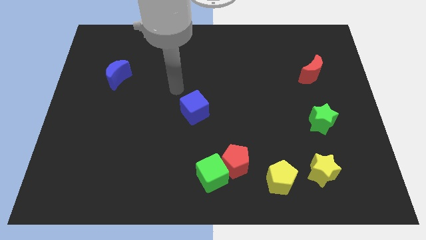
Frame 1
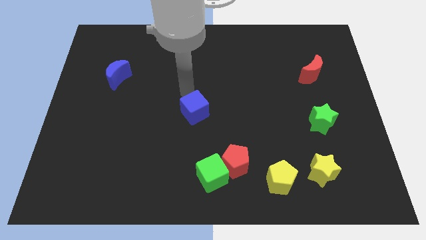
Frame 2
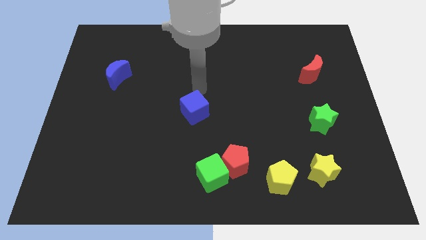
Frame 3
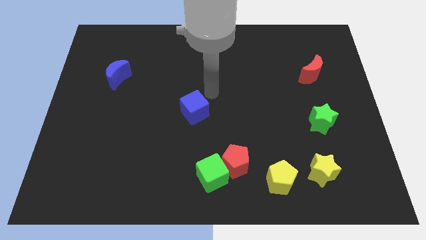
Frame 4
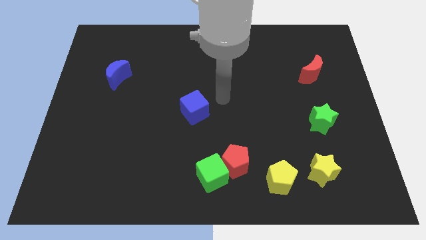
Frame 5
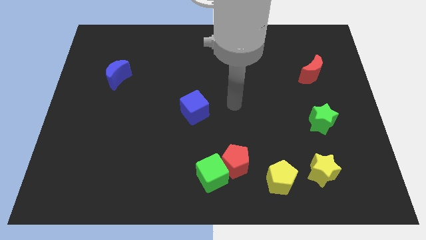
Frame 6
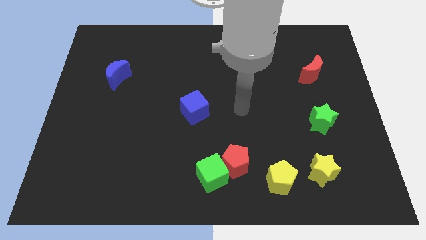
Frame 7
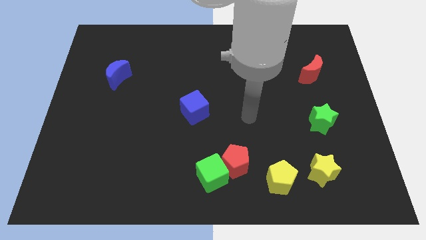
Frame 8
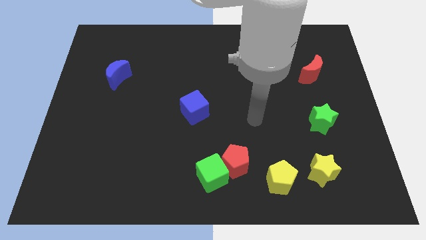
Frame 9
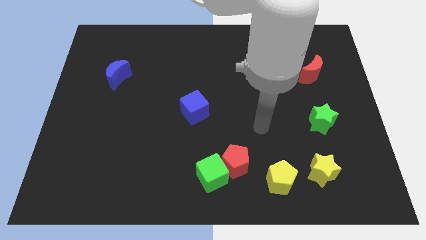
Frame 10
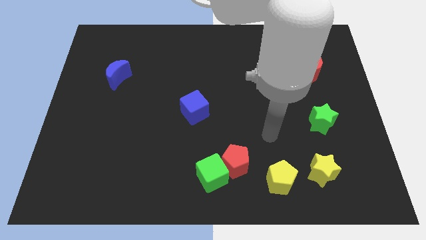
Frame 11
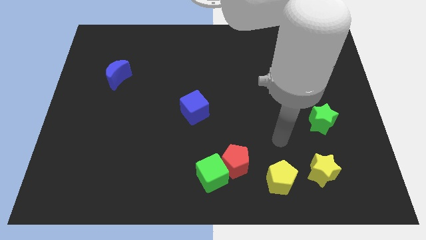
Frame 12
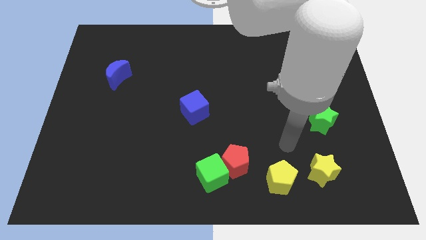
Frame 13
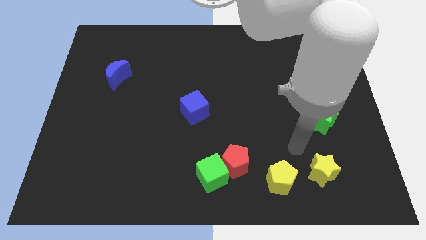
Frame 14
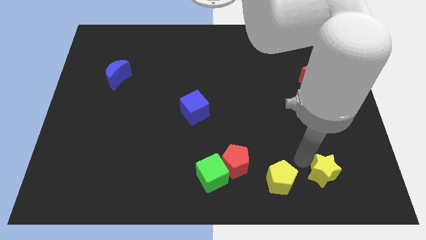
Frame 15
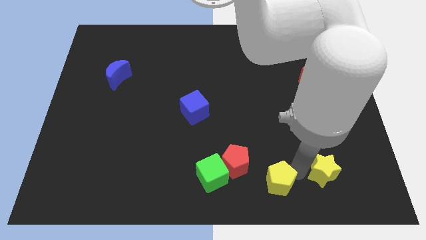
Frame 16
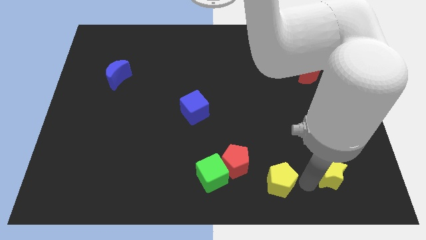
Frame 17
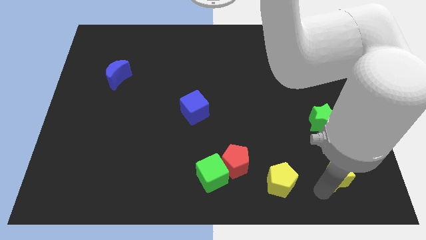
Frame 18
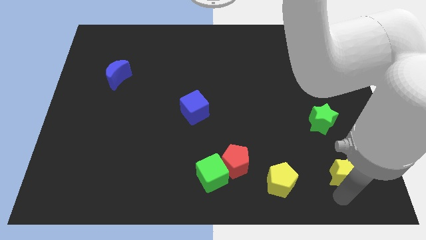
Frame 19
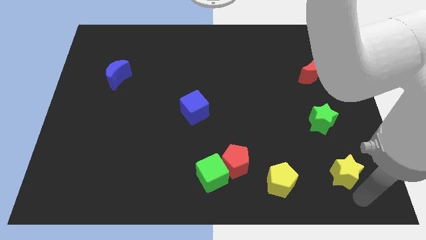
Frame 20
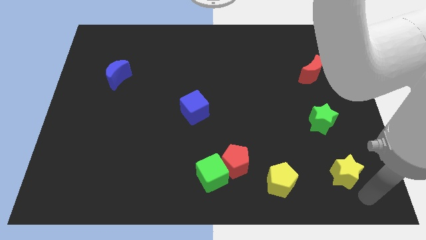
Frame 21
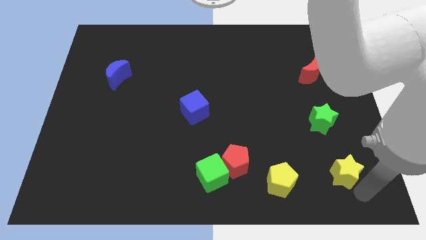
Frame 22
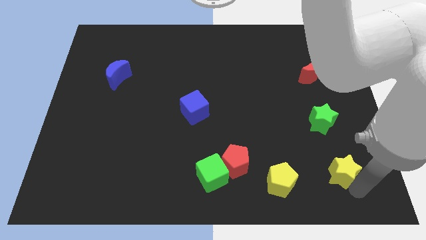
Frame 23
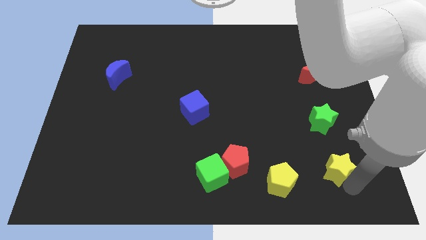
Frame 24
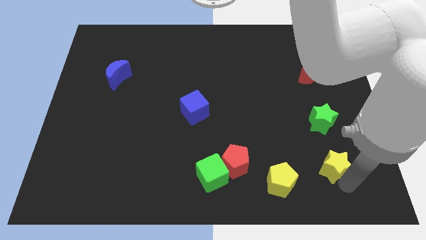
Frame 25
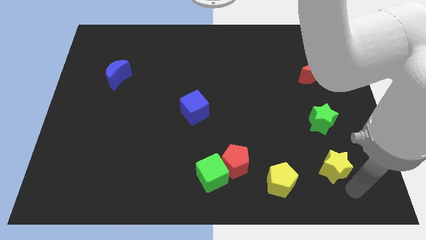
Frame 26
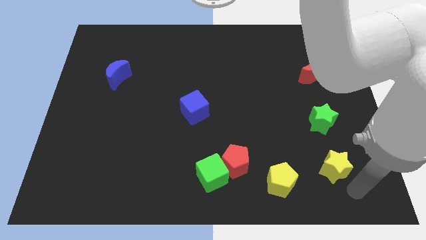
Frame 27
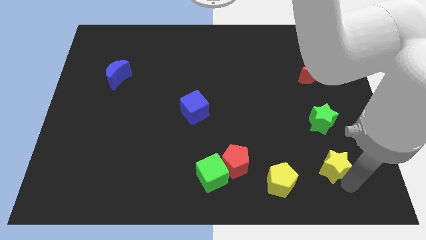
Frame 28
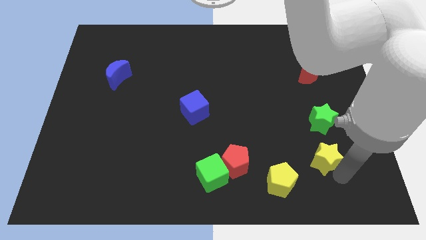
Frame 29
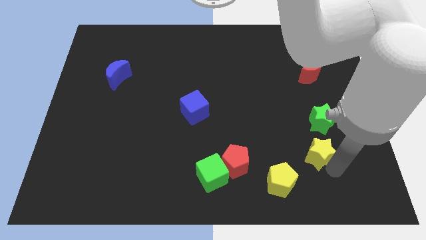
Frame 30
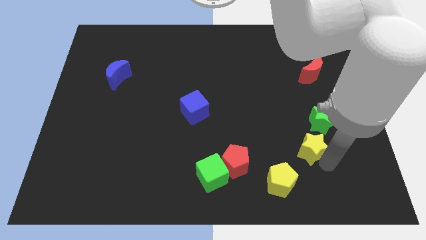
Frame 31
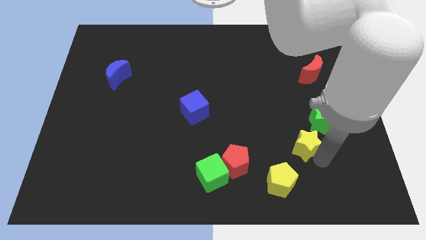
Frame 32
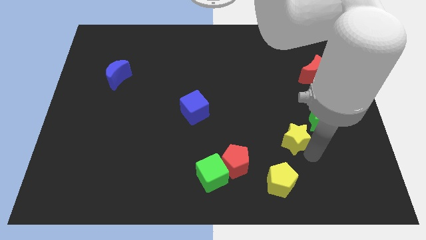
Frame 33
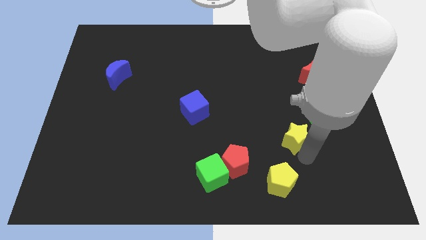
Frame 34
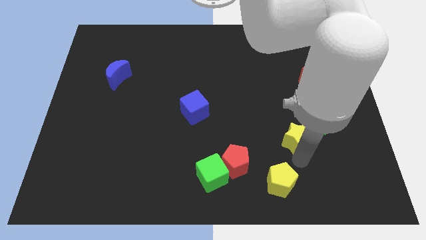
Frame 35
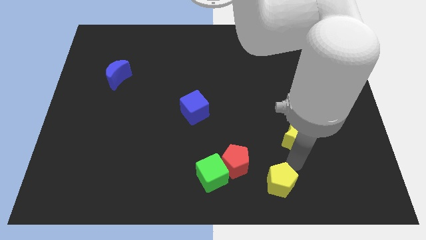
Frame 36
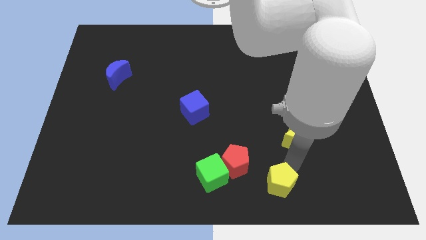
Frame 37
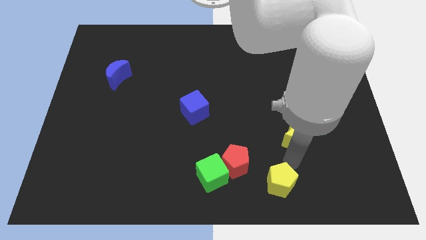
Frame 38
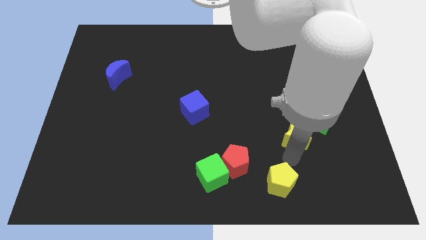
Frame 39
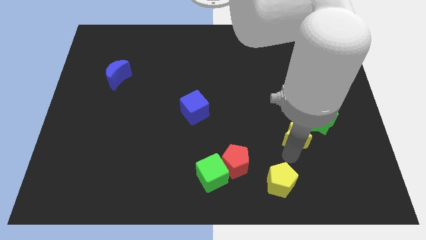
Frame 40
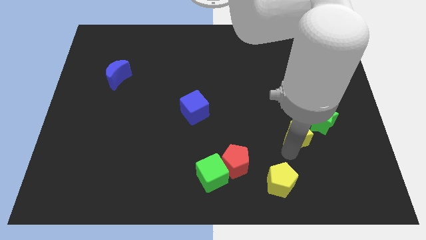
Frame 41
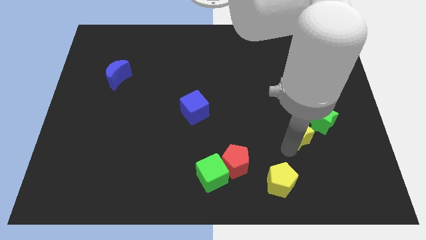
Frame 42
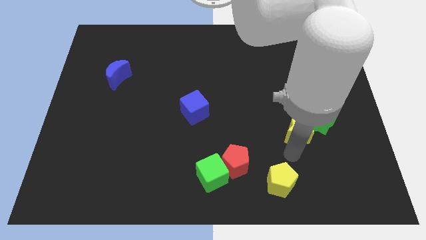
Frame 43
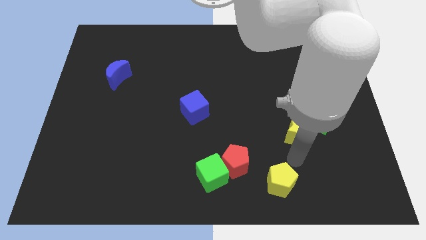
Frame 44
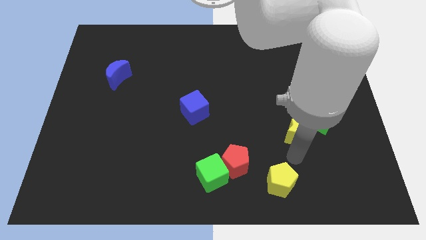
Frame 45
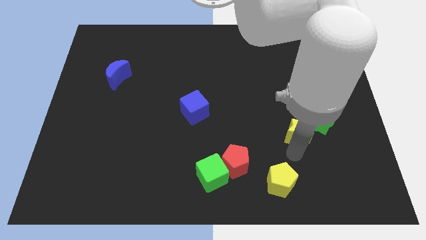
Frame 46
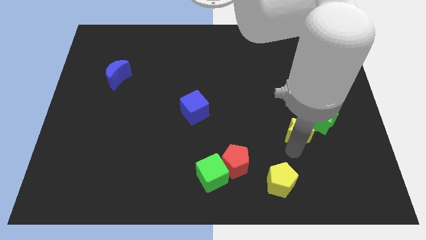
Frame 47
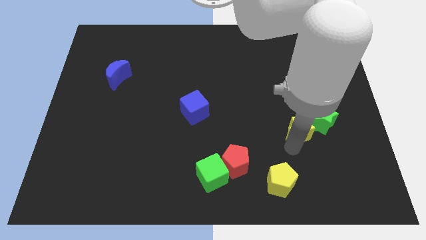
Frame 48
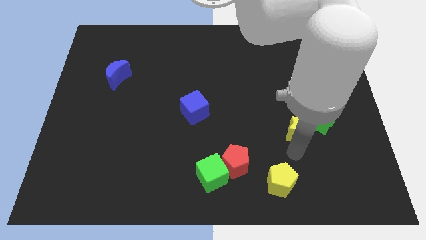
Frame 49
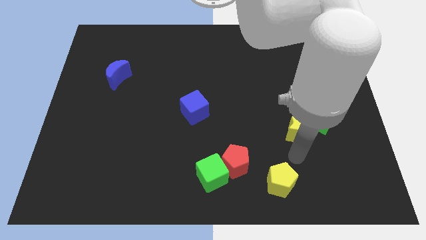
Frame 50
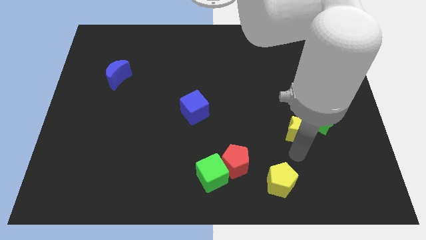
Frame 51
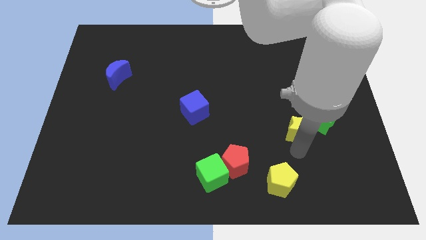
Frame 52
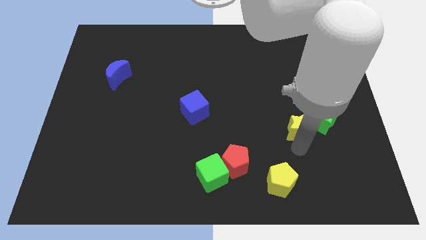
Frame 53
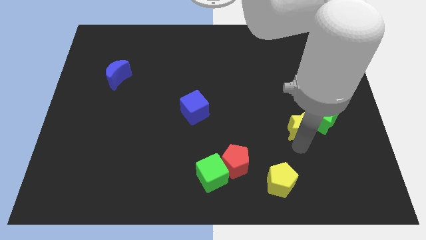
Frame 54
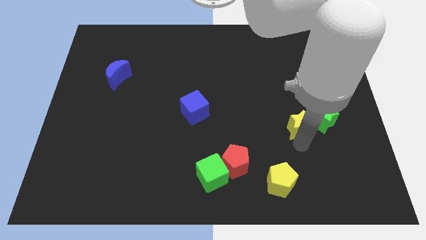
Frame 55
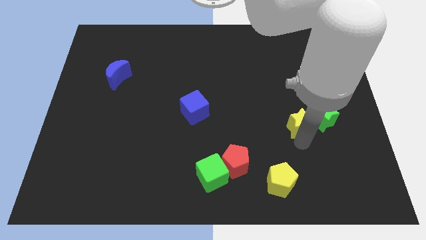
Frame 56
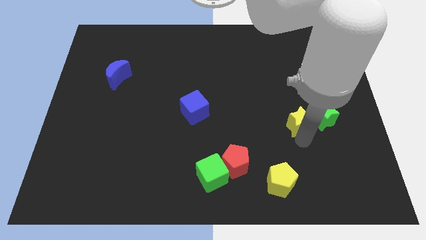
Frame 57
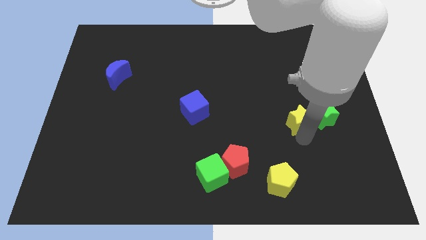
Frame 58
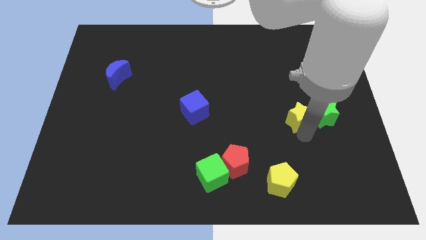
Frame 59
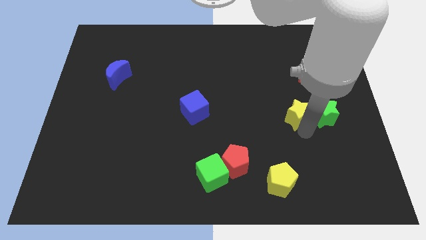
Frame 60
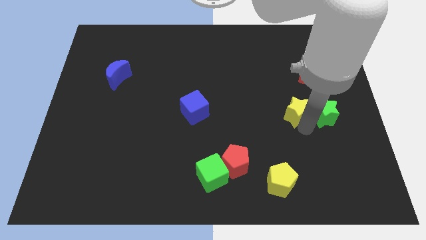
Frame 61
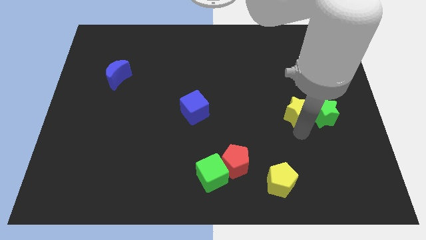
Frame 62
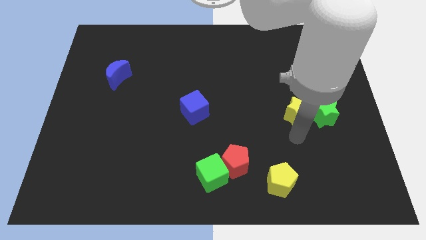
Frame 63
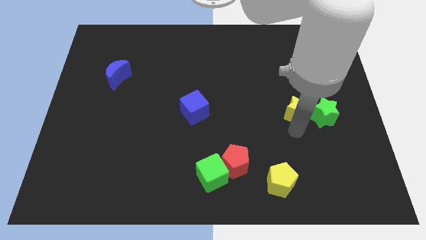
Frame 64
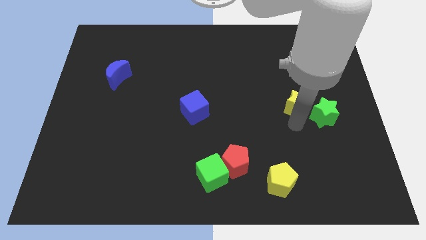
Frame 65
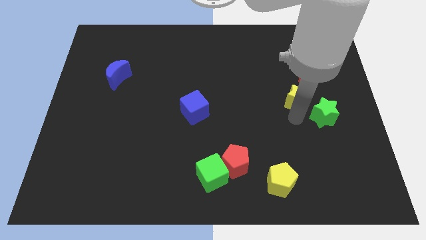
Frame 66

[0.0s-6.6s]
move the yellow star to the bottom left of the red moon

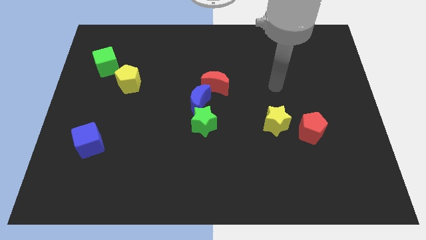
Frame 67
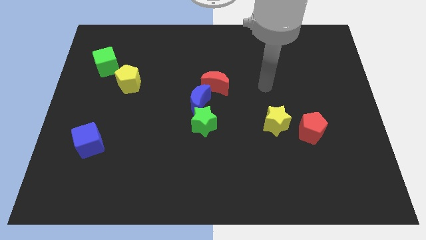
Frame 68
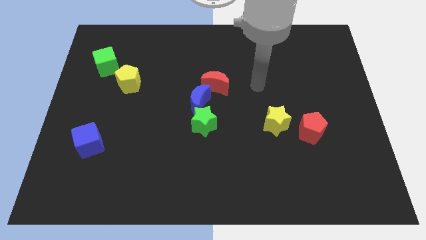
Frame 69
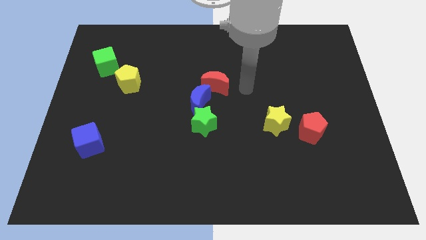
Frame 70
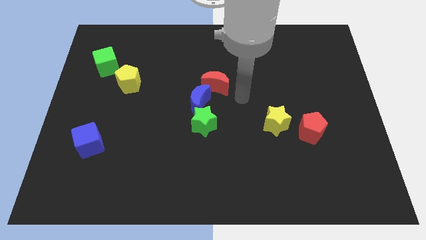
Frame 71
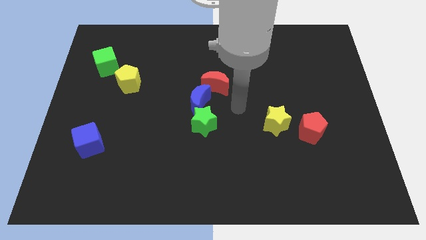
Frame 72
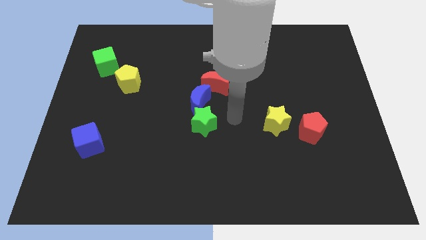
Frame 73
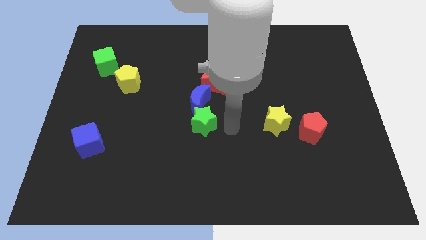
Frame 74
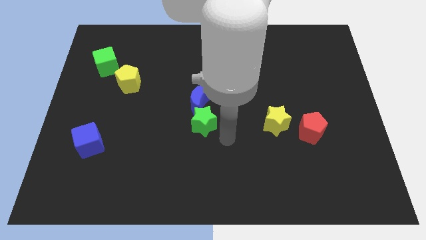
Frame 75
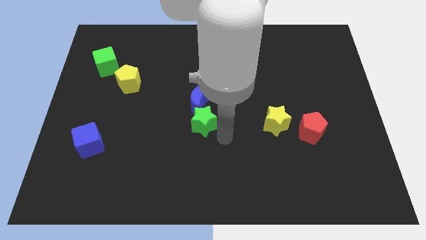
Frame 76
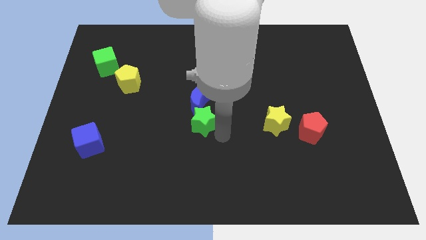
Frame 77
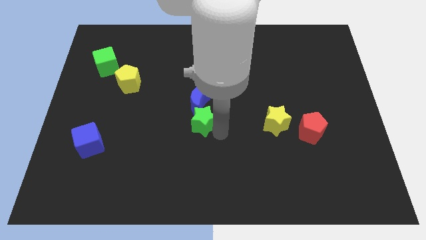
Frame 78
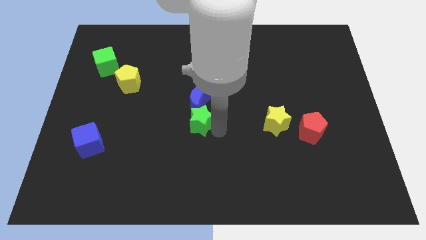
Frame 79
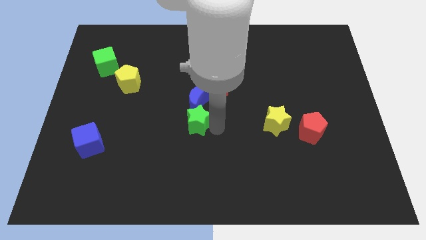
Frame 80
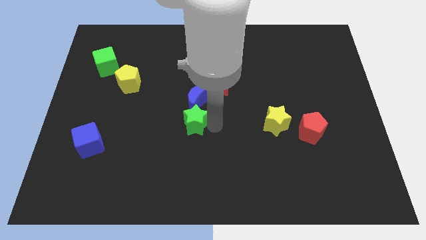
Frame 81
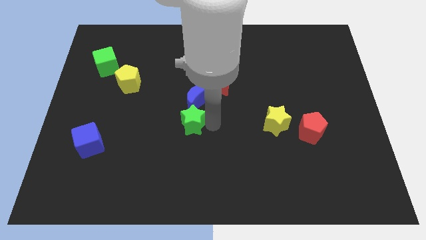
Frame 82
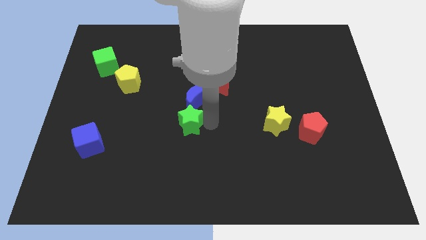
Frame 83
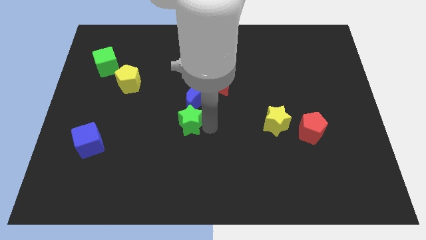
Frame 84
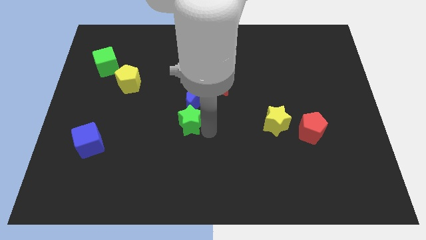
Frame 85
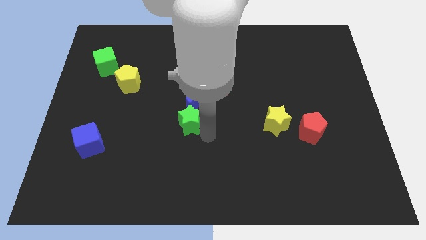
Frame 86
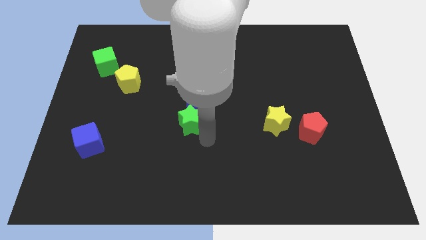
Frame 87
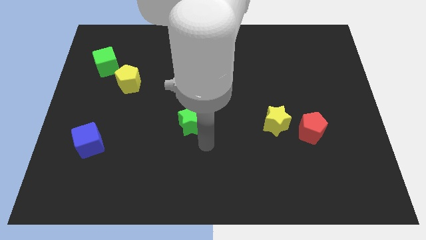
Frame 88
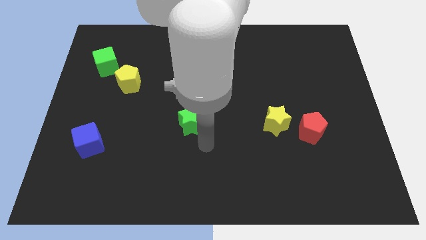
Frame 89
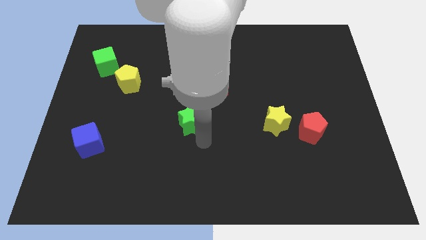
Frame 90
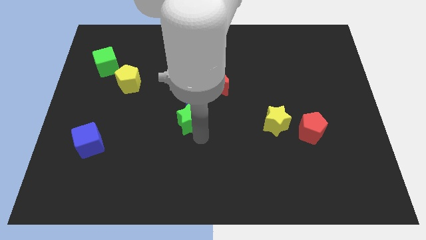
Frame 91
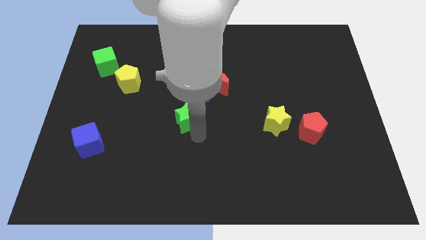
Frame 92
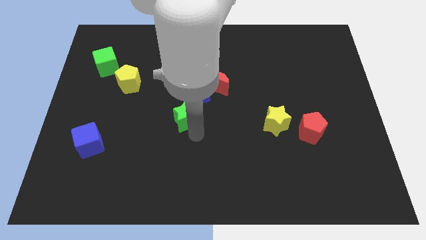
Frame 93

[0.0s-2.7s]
put the green star to the bottom left side of the red moon
